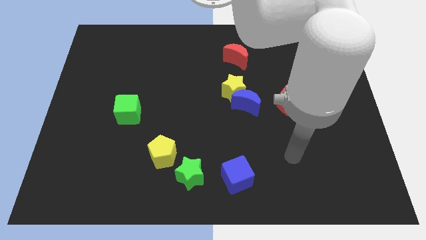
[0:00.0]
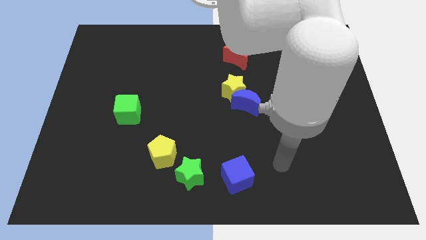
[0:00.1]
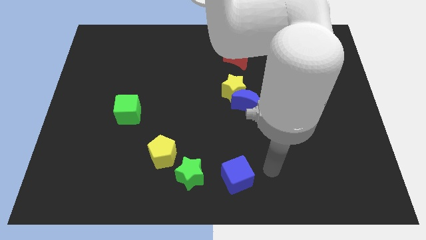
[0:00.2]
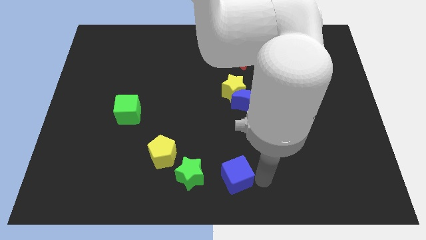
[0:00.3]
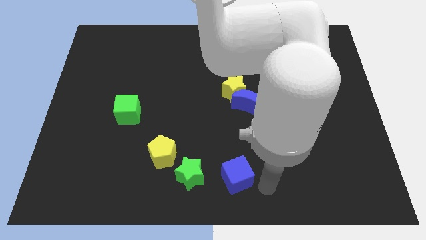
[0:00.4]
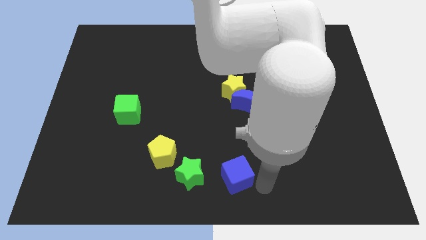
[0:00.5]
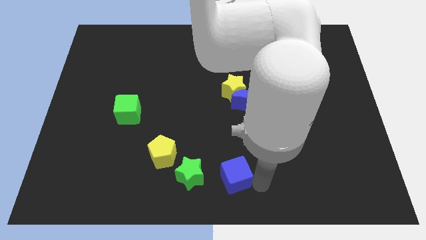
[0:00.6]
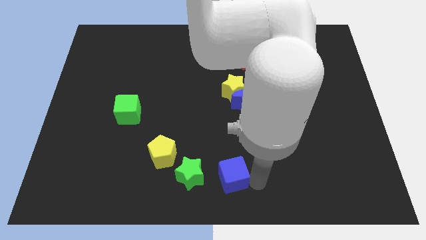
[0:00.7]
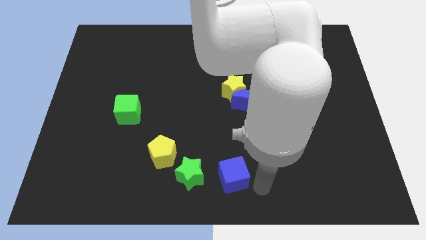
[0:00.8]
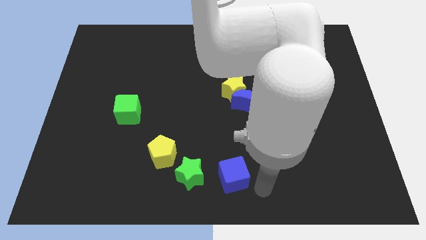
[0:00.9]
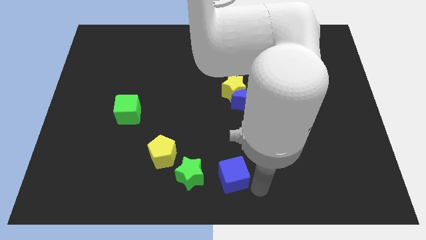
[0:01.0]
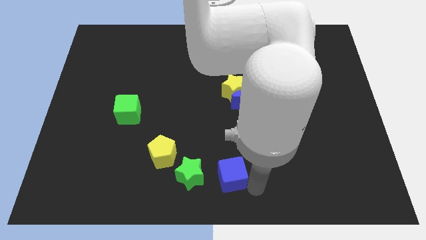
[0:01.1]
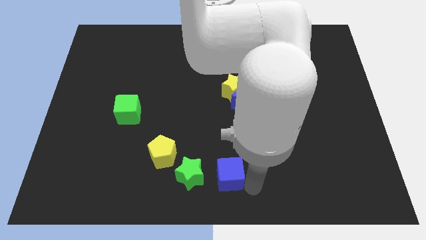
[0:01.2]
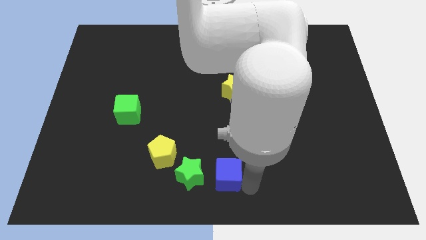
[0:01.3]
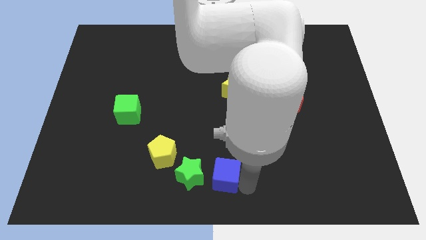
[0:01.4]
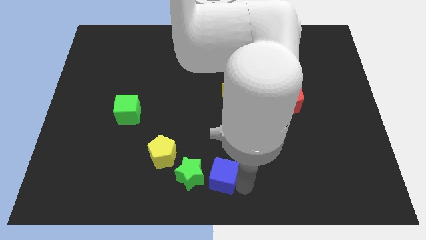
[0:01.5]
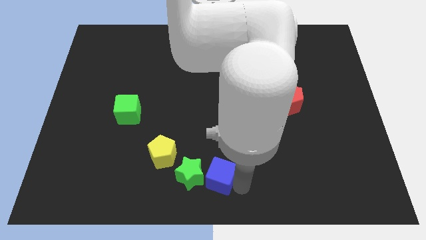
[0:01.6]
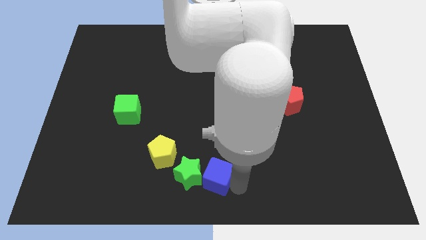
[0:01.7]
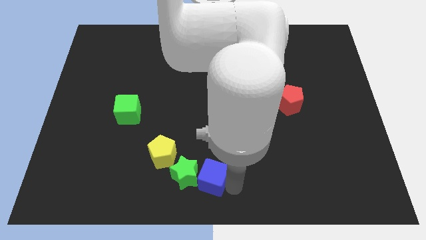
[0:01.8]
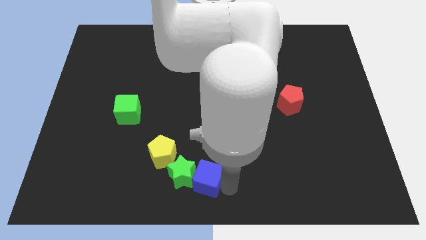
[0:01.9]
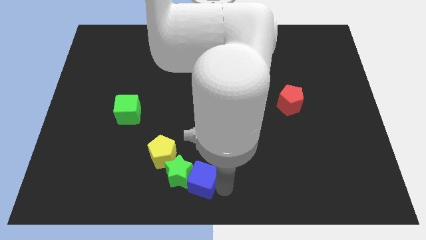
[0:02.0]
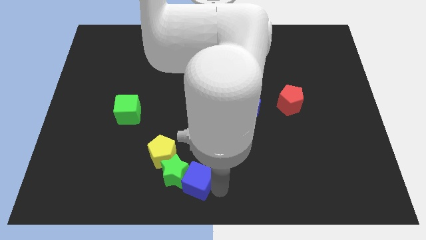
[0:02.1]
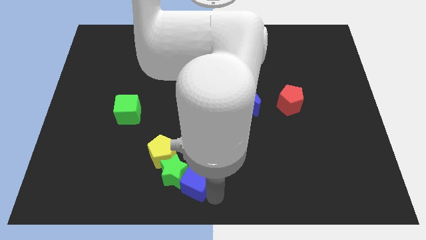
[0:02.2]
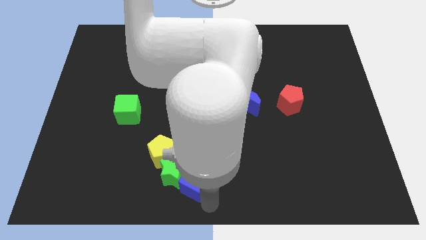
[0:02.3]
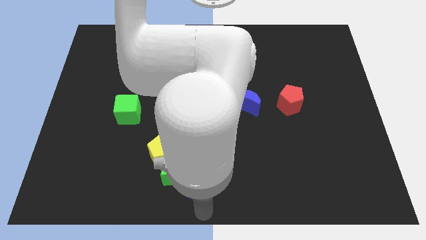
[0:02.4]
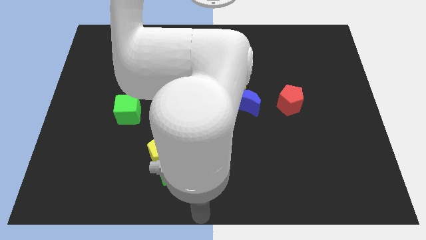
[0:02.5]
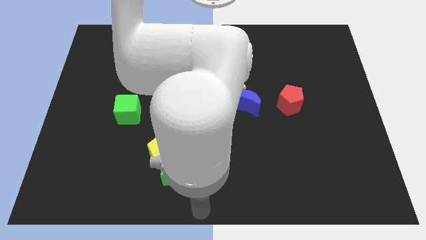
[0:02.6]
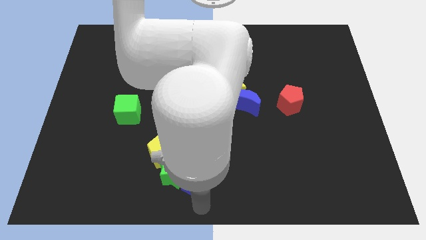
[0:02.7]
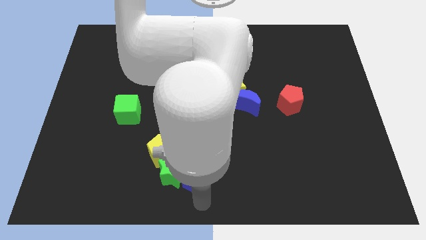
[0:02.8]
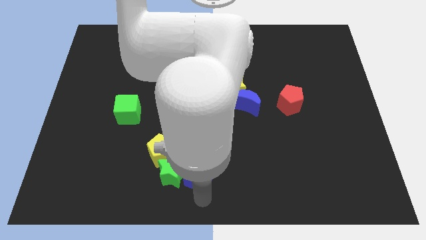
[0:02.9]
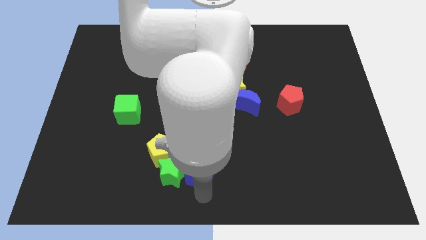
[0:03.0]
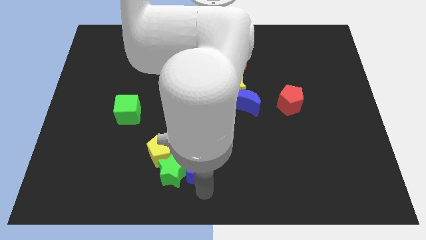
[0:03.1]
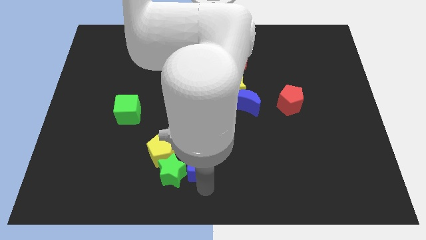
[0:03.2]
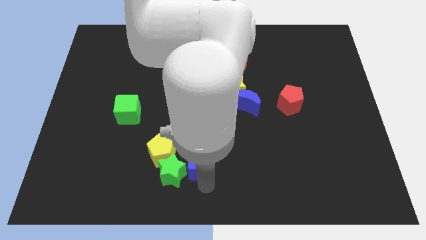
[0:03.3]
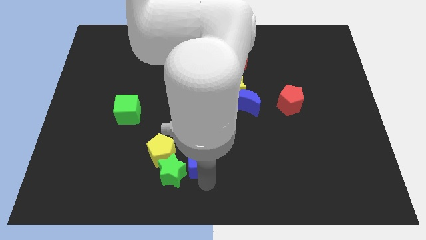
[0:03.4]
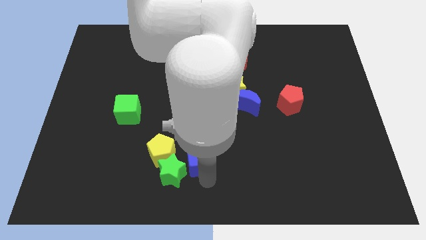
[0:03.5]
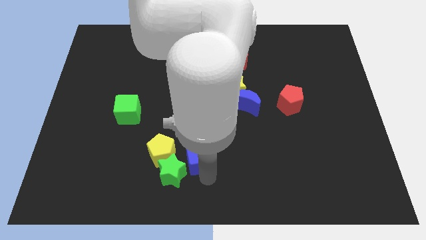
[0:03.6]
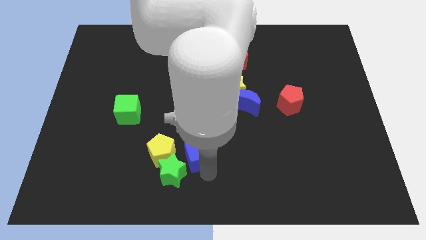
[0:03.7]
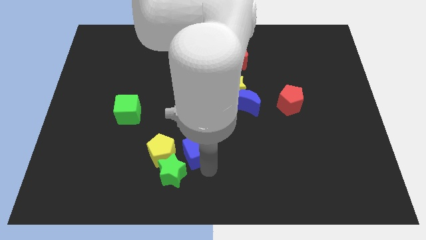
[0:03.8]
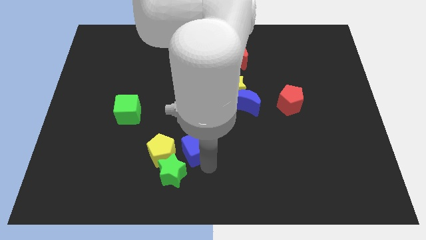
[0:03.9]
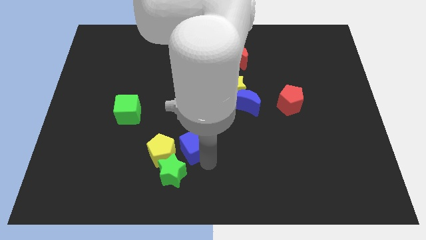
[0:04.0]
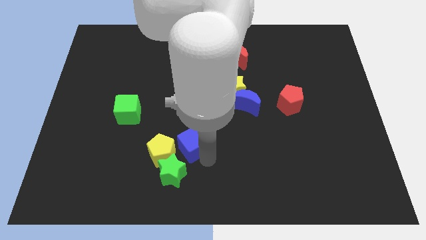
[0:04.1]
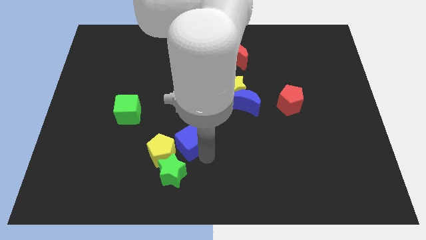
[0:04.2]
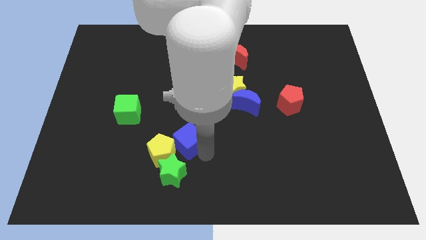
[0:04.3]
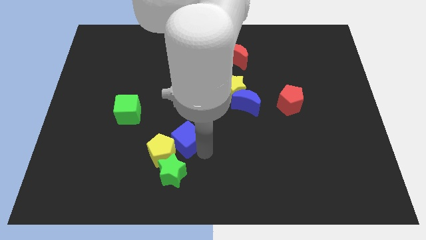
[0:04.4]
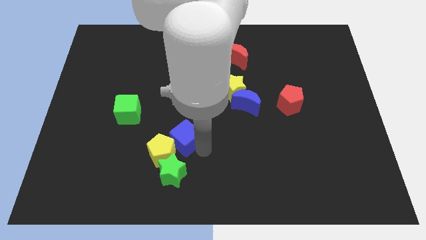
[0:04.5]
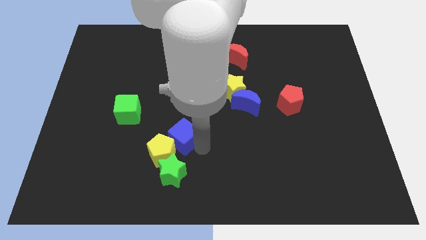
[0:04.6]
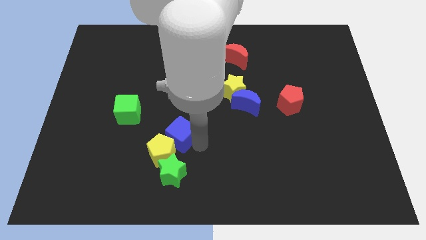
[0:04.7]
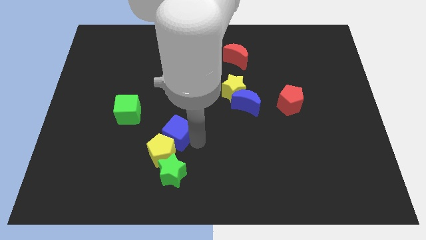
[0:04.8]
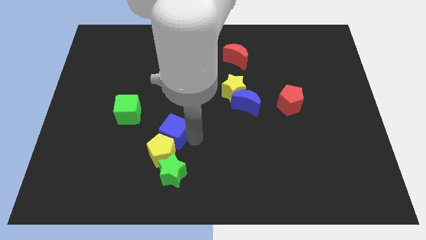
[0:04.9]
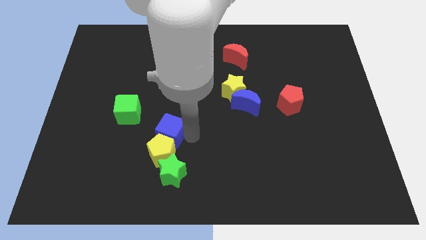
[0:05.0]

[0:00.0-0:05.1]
push the blue cube to the top left of the yellow pentagon
